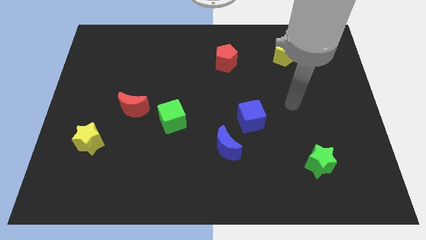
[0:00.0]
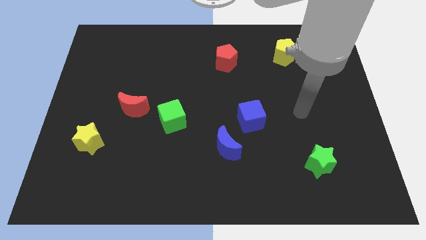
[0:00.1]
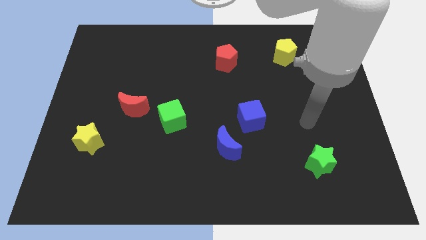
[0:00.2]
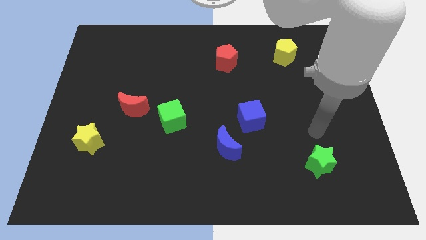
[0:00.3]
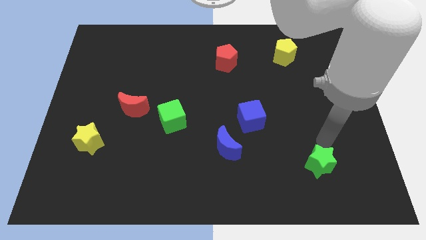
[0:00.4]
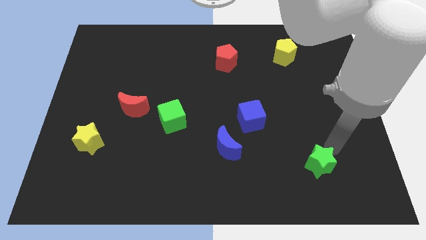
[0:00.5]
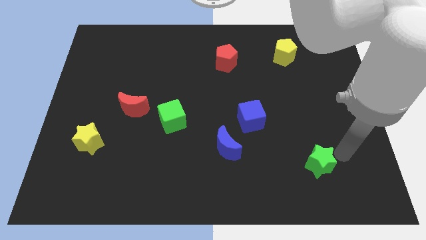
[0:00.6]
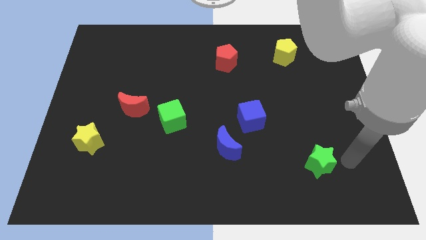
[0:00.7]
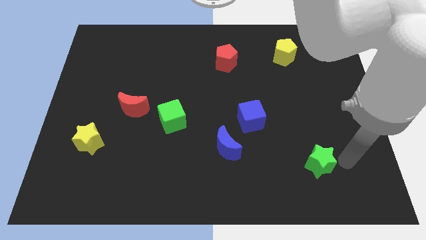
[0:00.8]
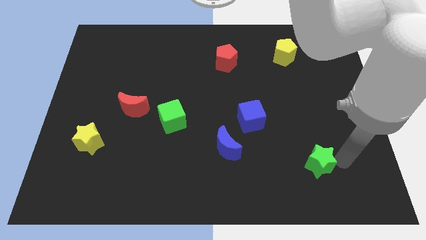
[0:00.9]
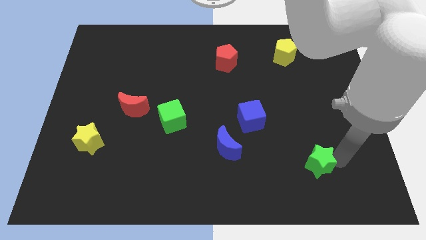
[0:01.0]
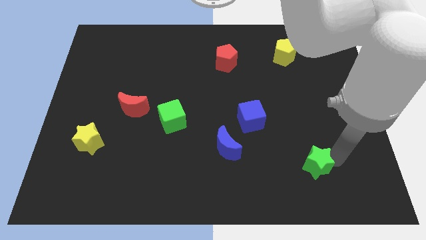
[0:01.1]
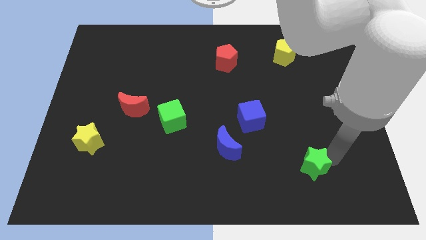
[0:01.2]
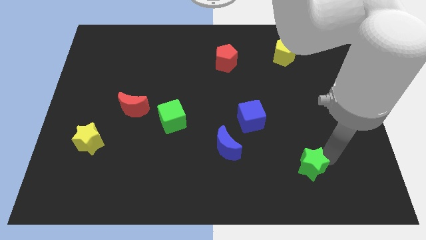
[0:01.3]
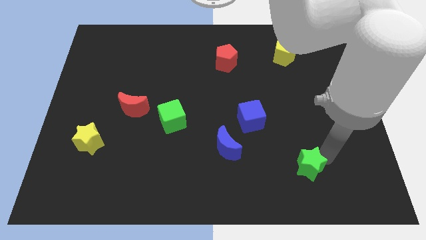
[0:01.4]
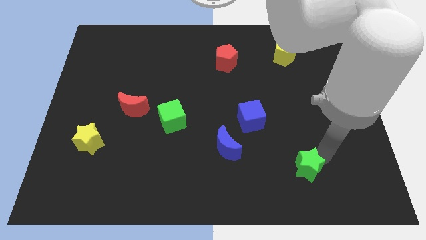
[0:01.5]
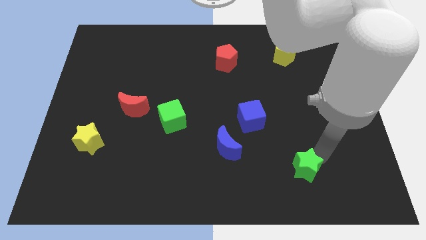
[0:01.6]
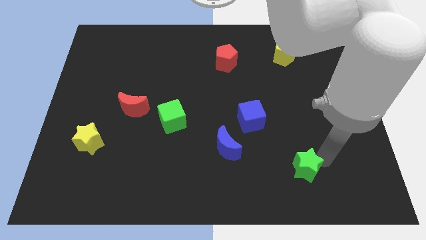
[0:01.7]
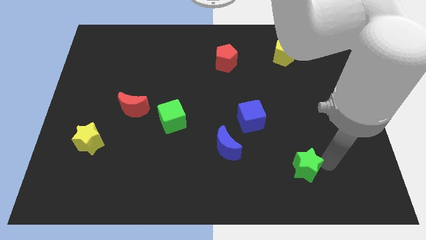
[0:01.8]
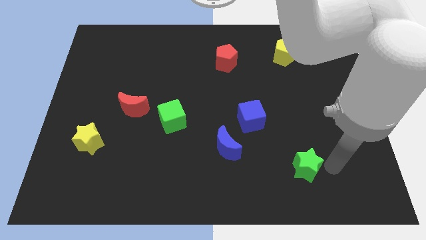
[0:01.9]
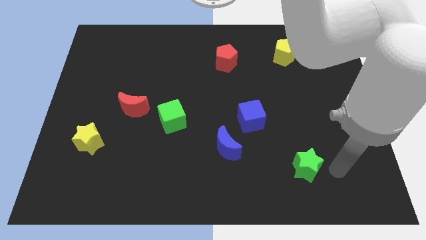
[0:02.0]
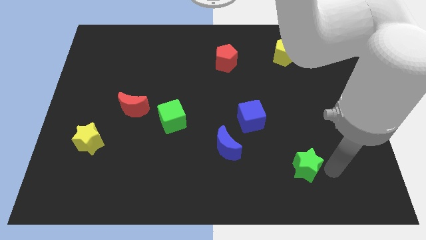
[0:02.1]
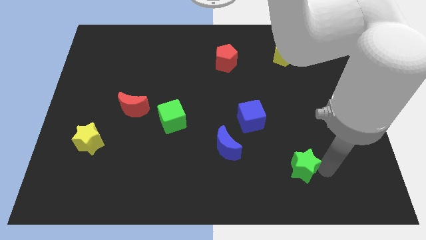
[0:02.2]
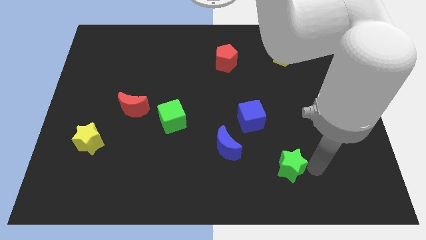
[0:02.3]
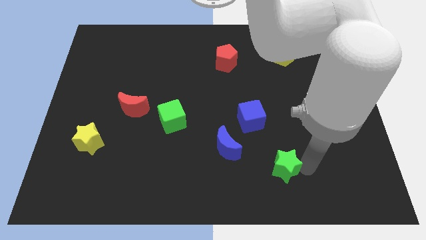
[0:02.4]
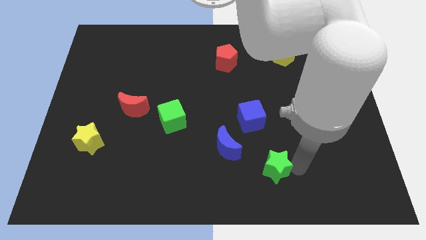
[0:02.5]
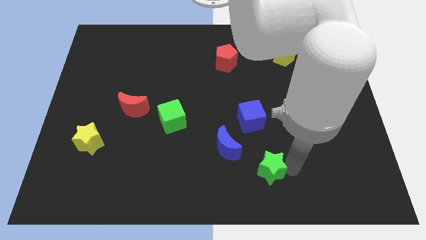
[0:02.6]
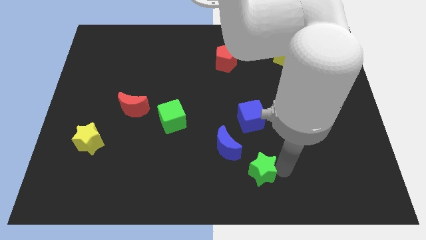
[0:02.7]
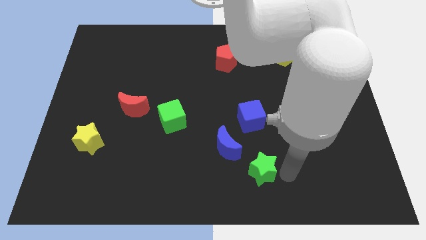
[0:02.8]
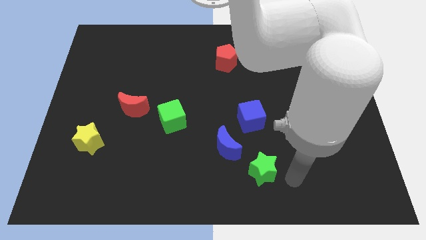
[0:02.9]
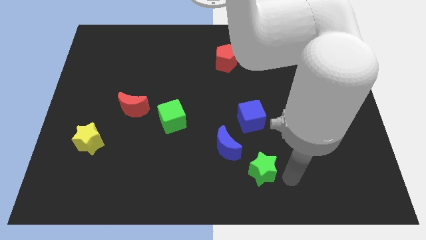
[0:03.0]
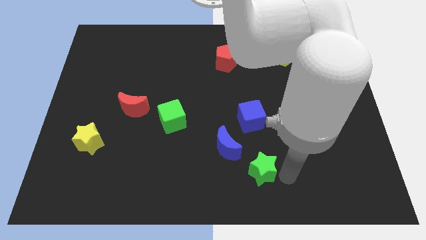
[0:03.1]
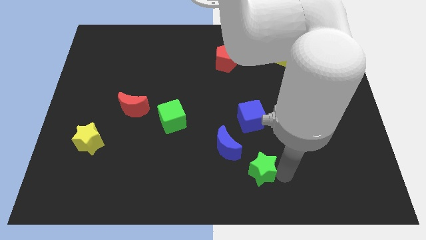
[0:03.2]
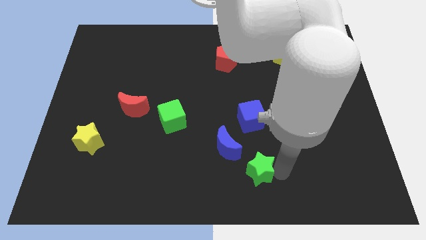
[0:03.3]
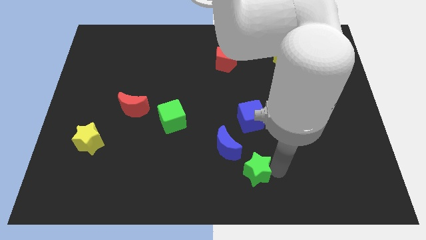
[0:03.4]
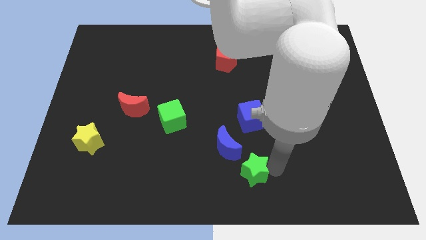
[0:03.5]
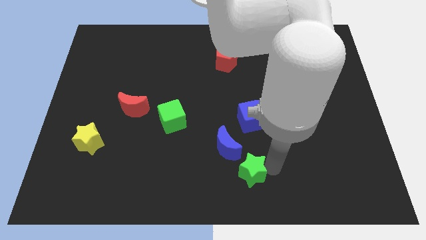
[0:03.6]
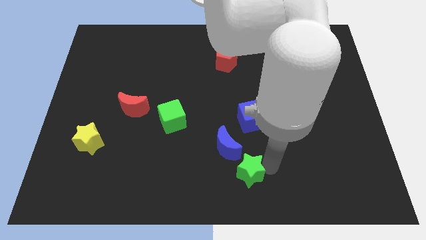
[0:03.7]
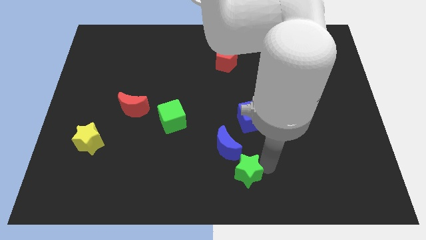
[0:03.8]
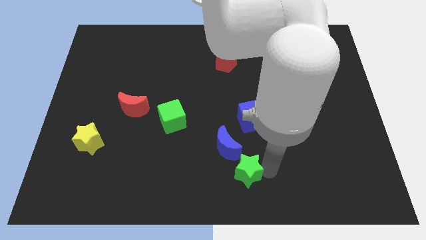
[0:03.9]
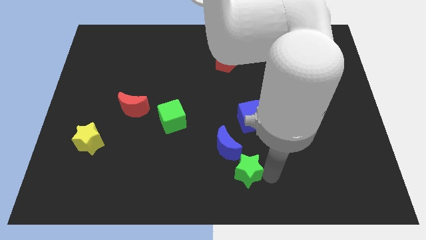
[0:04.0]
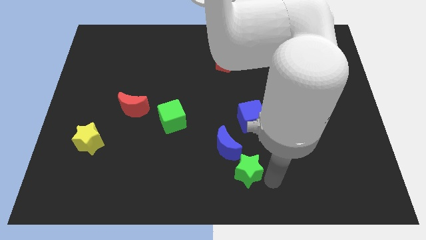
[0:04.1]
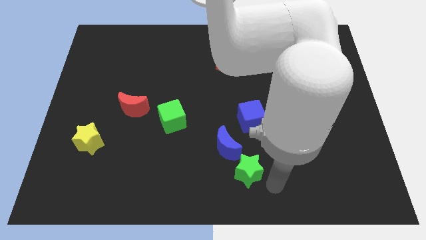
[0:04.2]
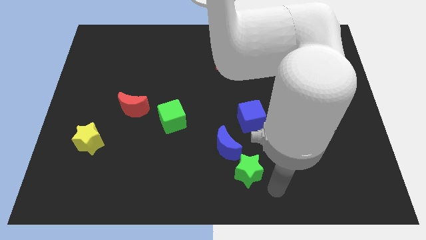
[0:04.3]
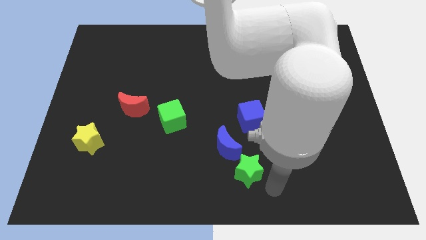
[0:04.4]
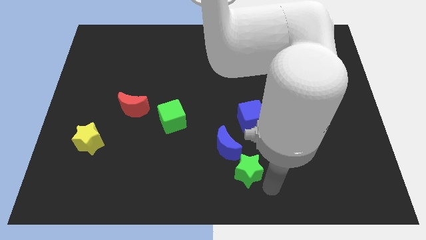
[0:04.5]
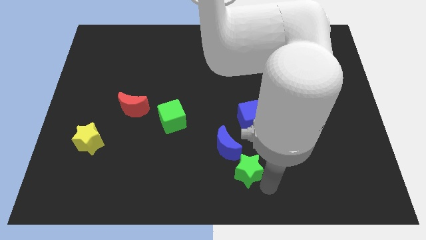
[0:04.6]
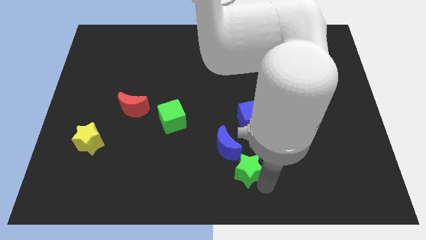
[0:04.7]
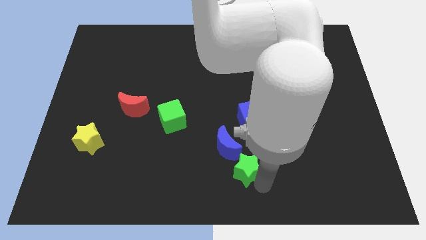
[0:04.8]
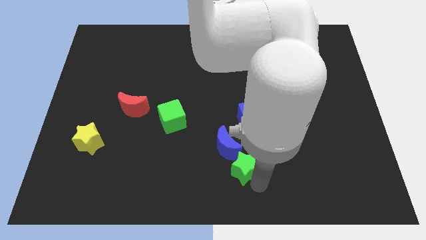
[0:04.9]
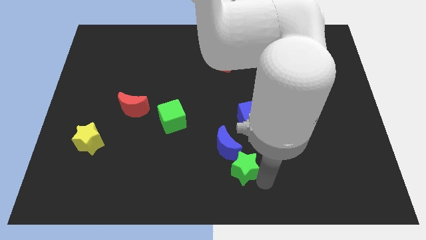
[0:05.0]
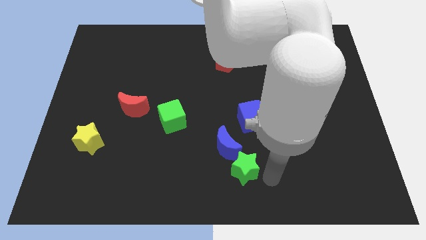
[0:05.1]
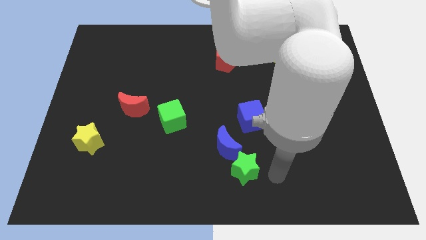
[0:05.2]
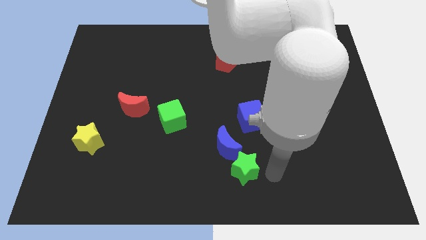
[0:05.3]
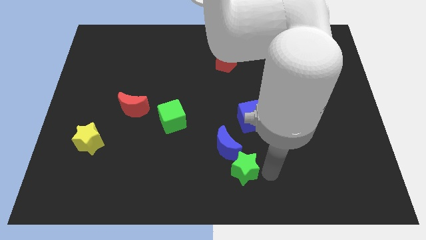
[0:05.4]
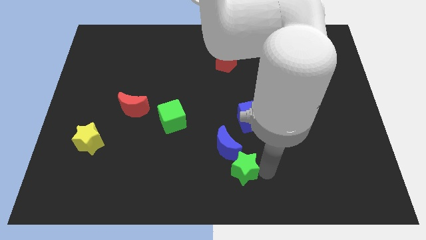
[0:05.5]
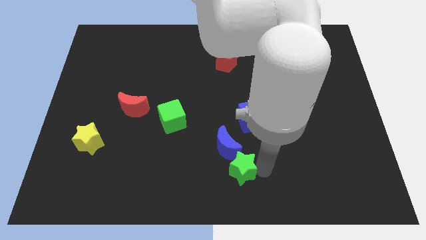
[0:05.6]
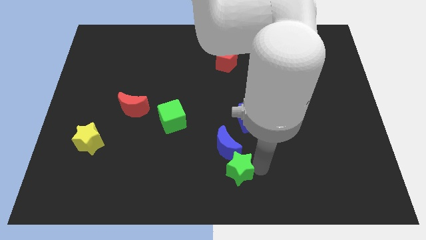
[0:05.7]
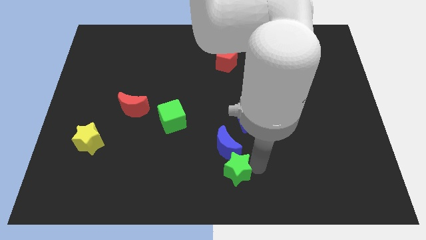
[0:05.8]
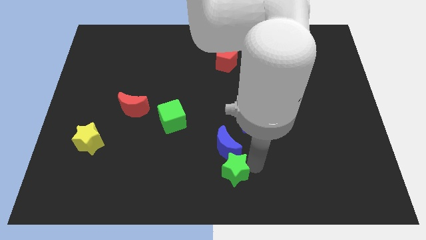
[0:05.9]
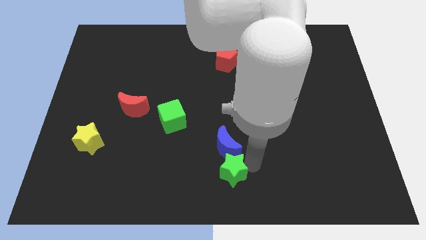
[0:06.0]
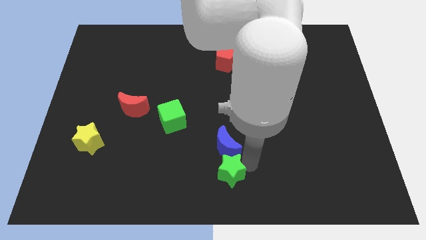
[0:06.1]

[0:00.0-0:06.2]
push the green star to the bottom left of the blue moon

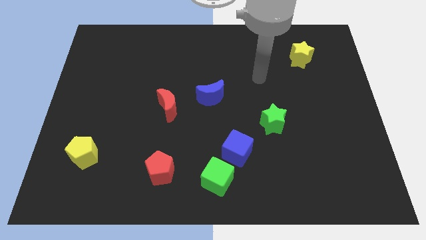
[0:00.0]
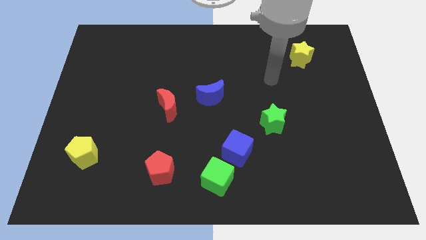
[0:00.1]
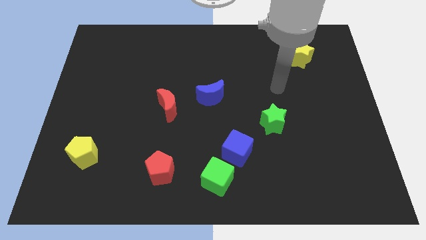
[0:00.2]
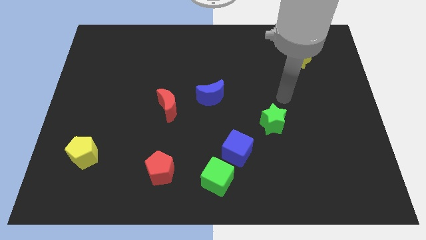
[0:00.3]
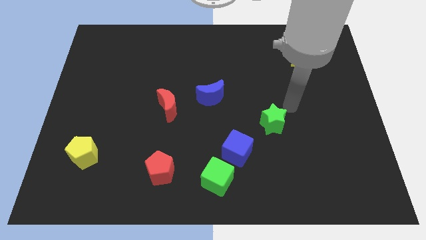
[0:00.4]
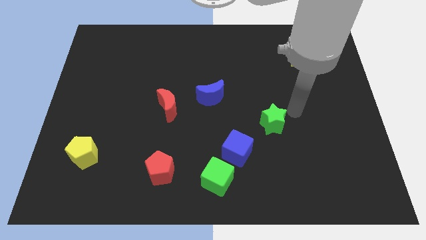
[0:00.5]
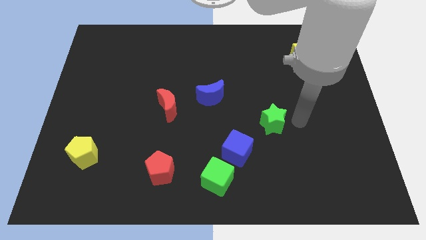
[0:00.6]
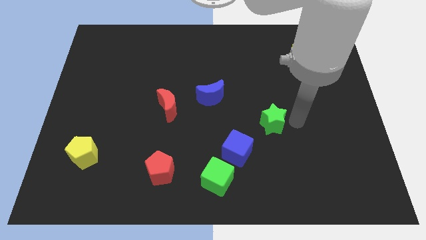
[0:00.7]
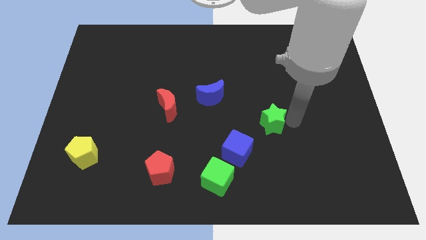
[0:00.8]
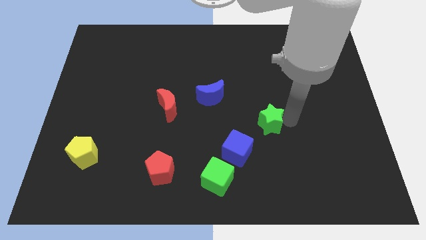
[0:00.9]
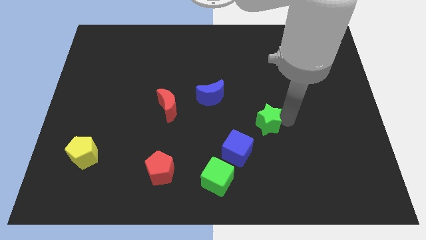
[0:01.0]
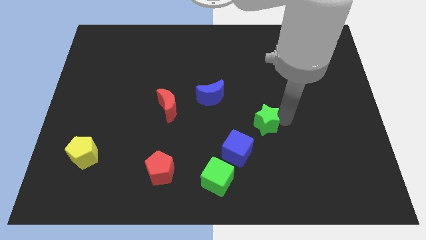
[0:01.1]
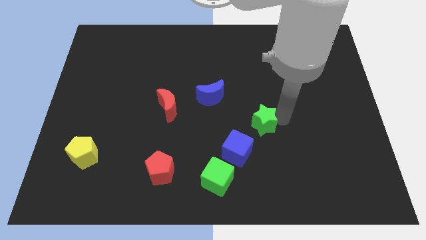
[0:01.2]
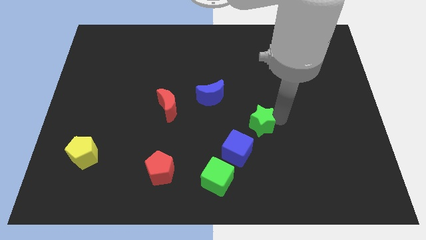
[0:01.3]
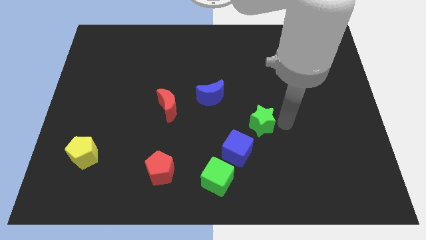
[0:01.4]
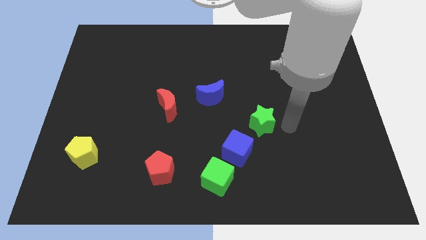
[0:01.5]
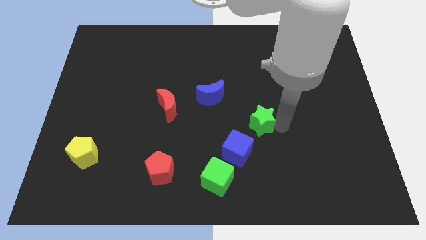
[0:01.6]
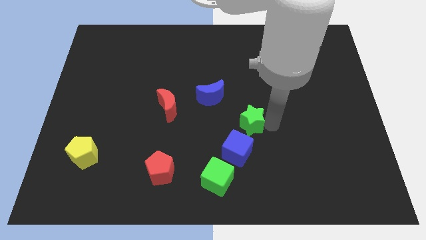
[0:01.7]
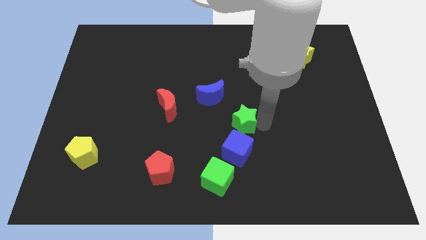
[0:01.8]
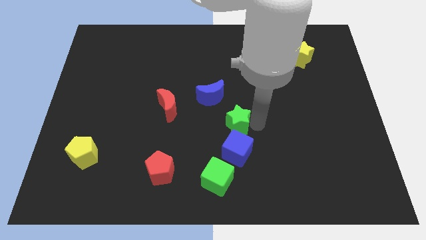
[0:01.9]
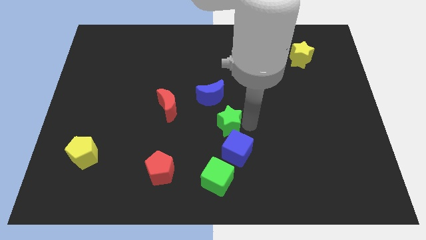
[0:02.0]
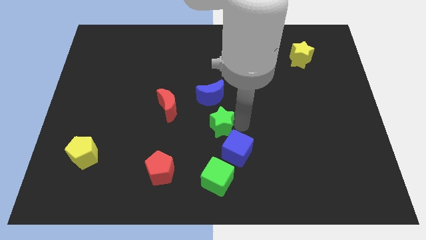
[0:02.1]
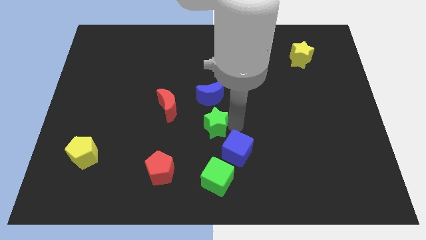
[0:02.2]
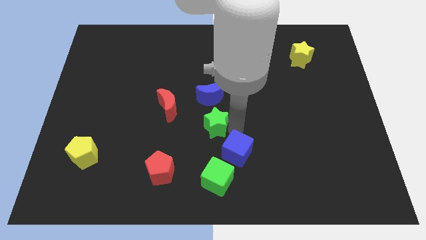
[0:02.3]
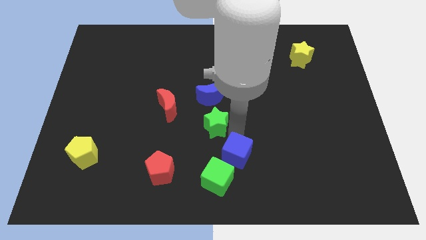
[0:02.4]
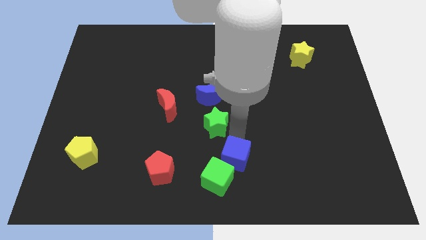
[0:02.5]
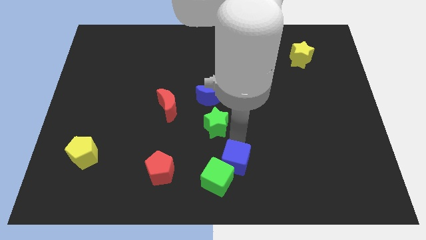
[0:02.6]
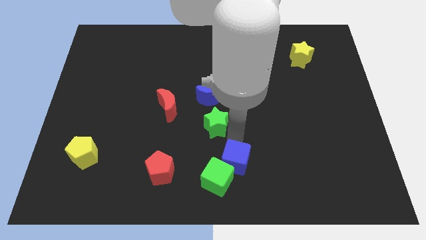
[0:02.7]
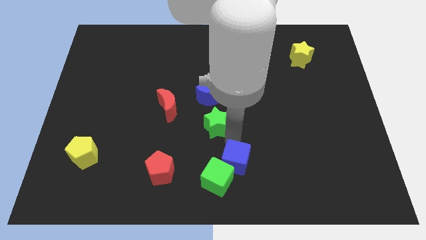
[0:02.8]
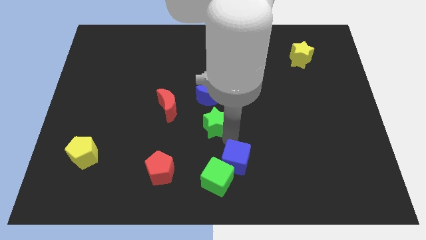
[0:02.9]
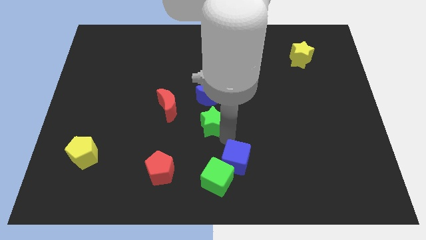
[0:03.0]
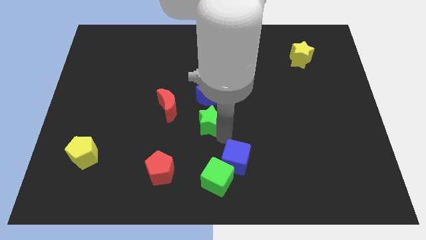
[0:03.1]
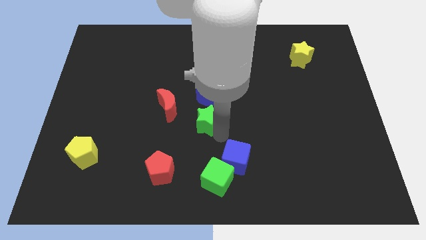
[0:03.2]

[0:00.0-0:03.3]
push the green star diagonally down and to the left of the blue moon
